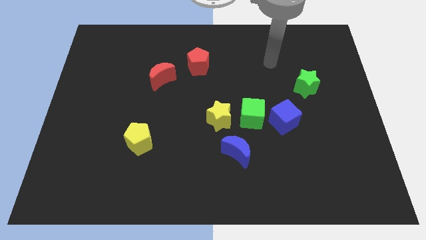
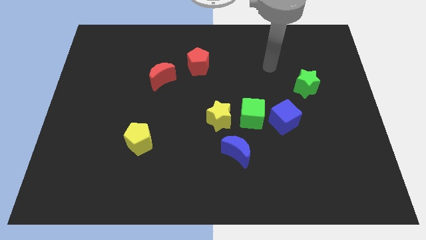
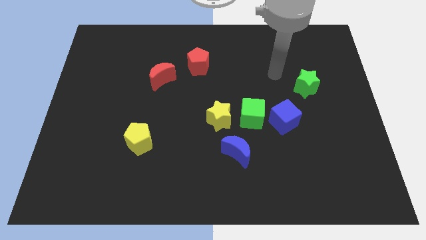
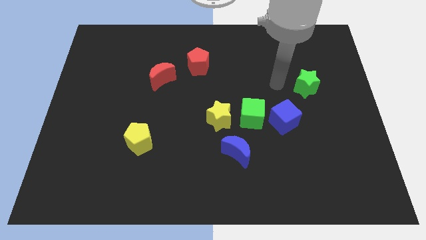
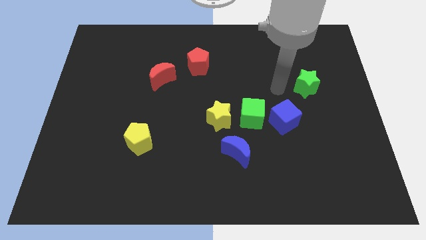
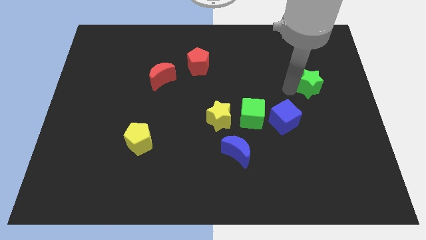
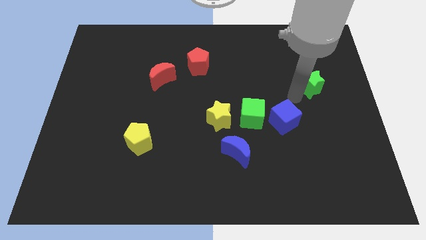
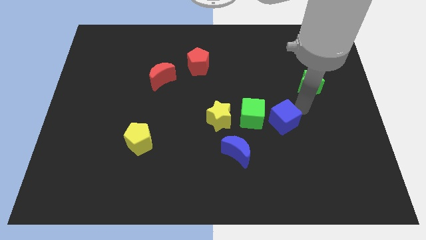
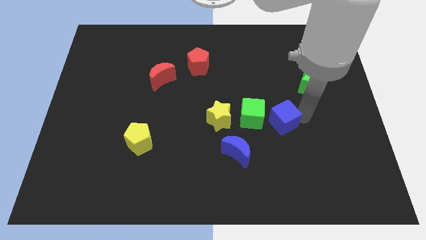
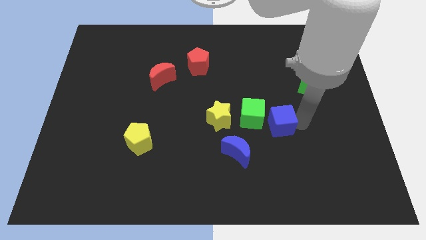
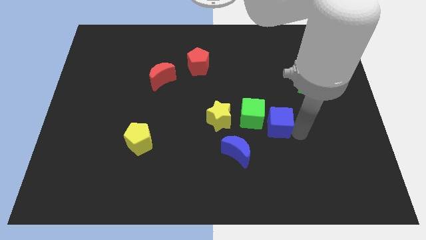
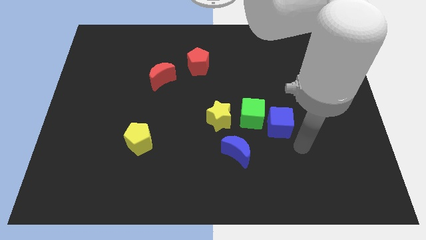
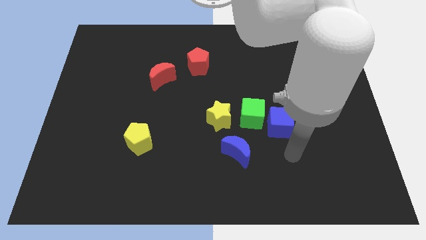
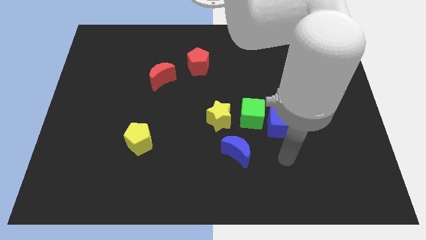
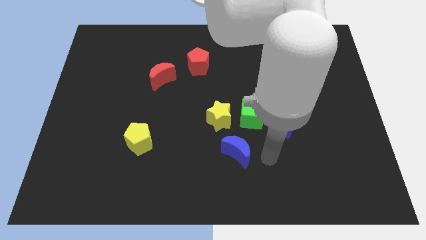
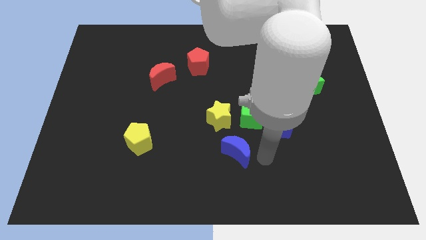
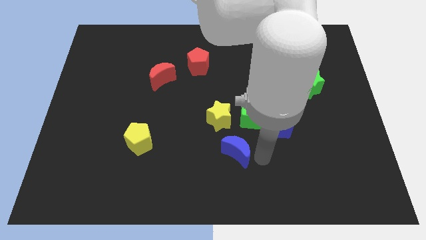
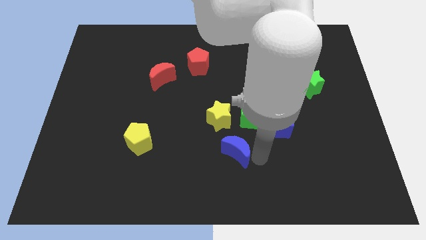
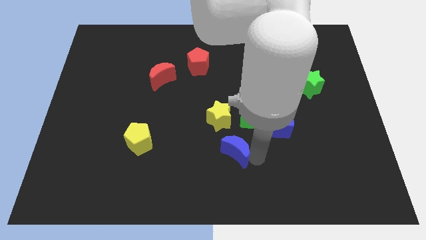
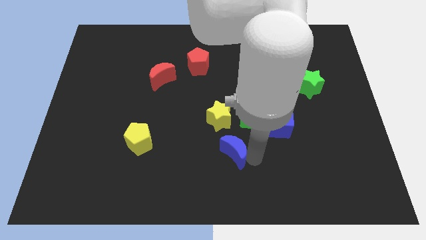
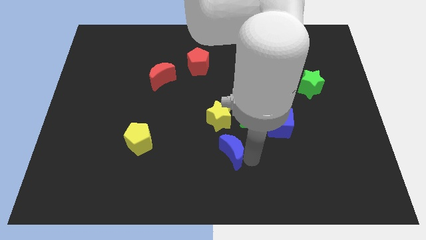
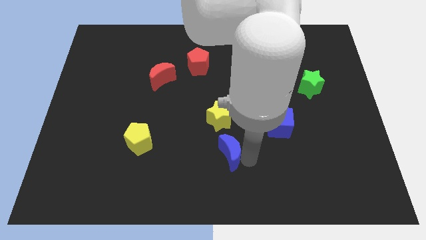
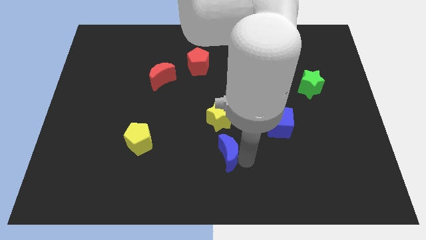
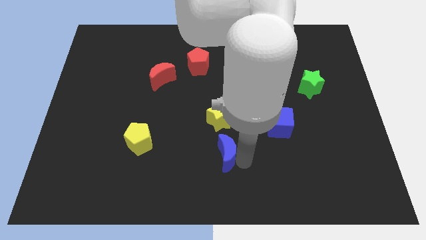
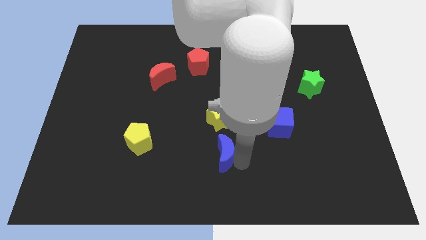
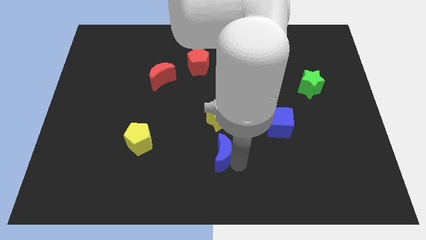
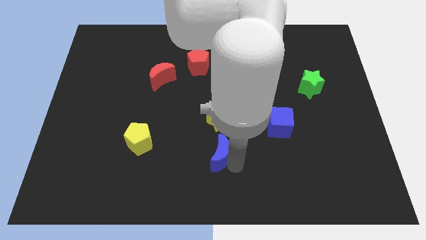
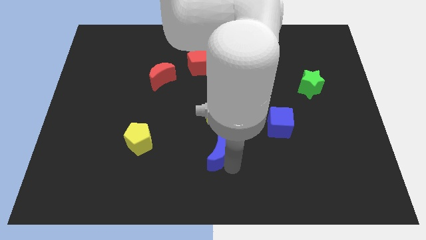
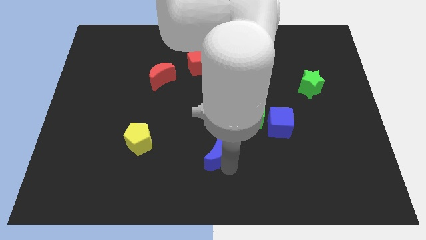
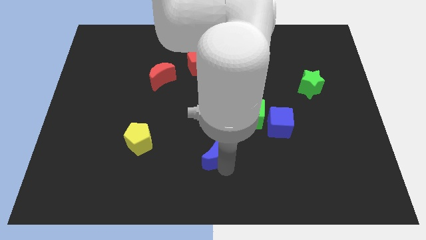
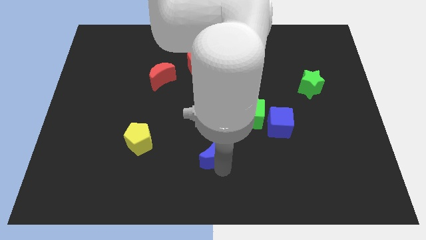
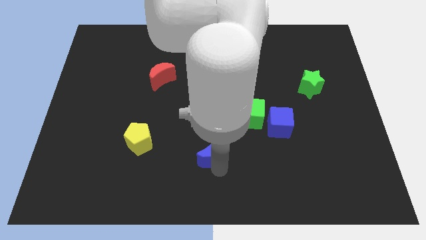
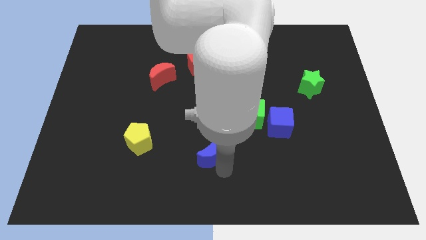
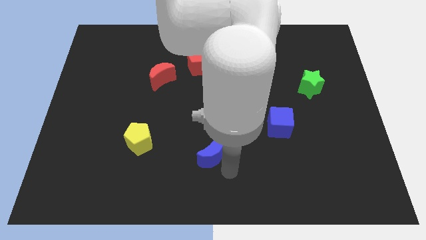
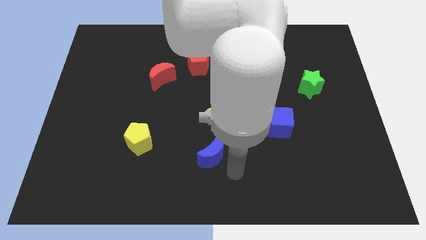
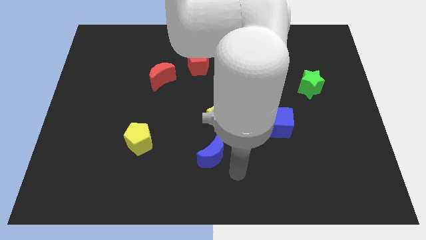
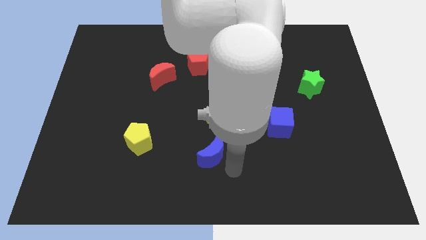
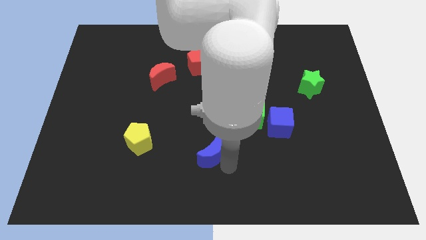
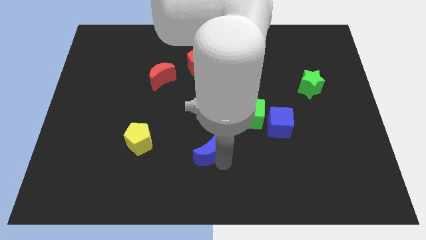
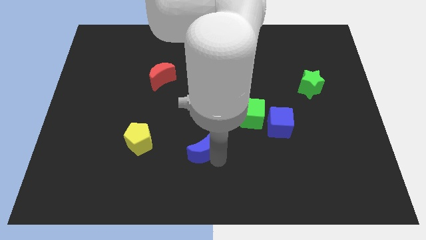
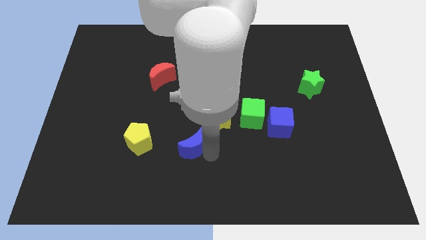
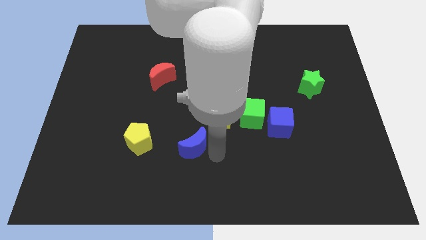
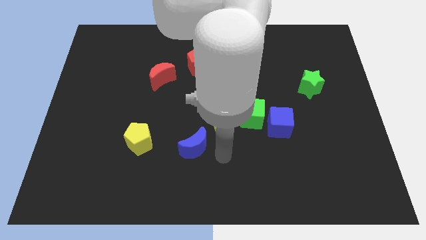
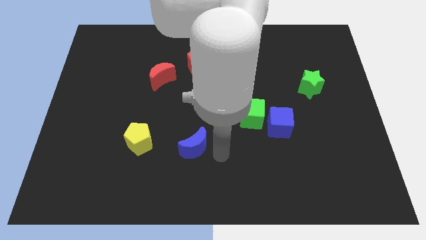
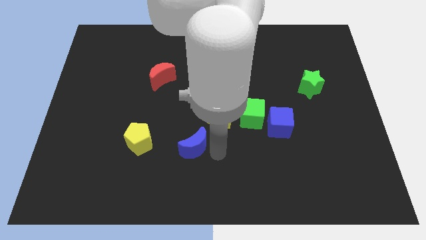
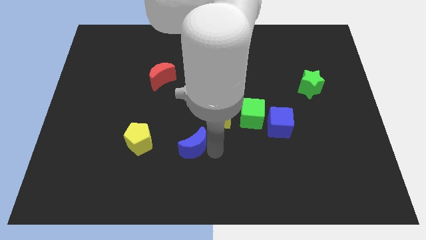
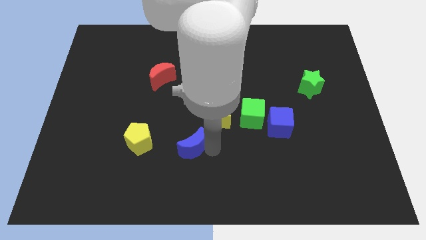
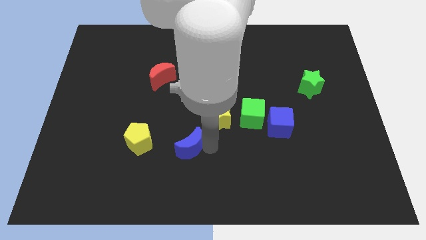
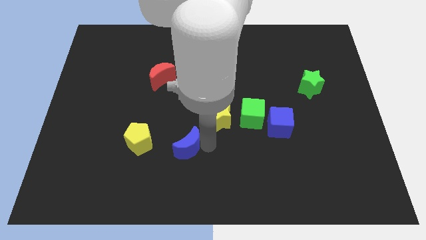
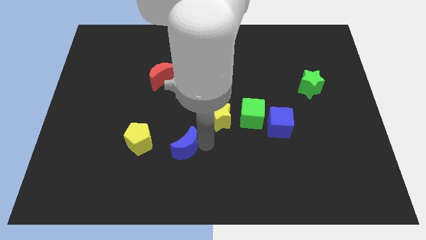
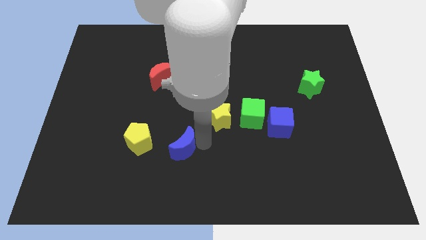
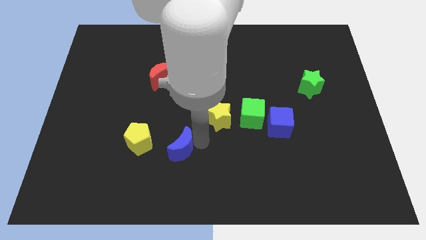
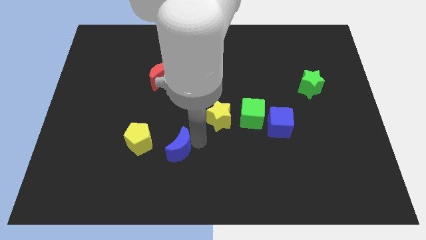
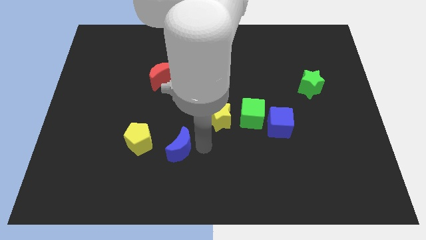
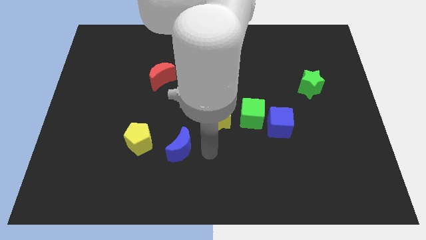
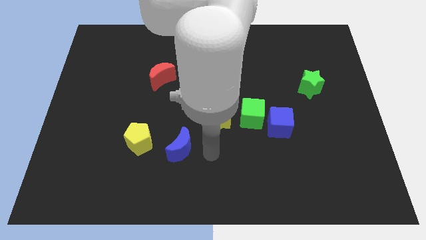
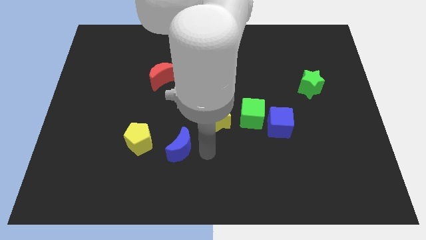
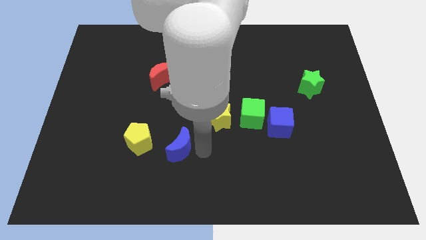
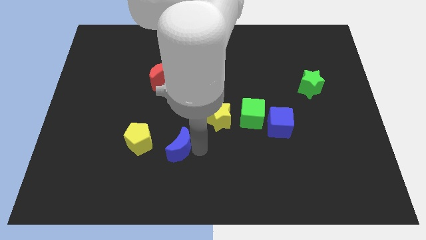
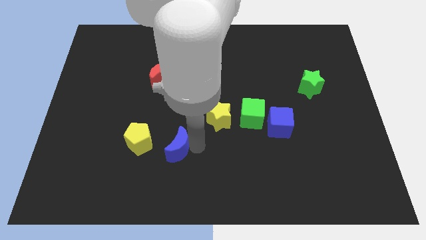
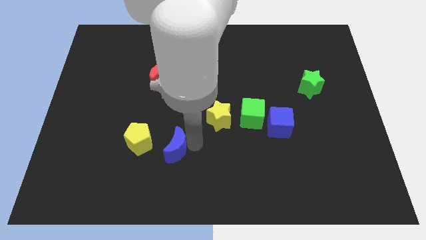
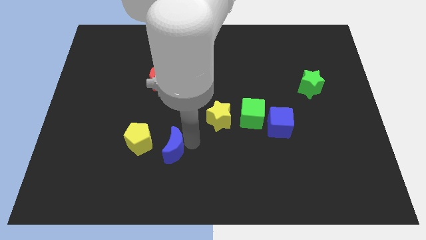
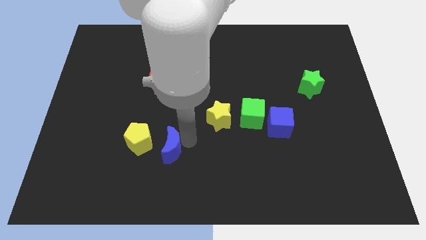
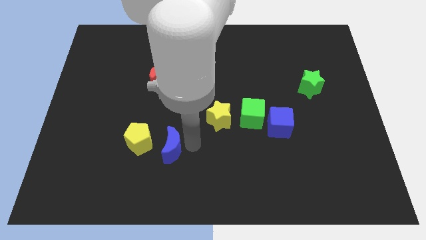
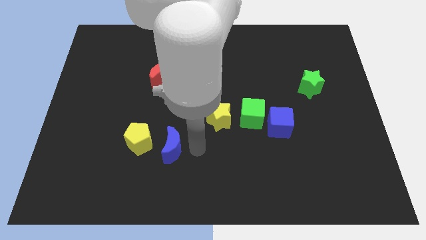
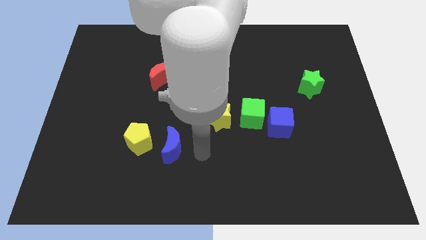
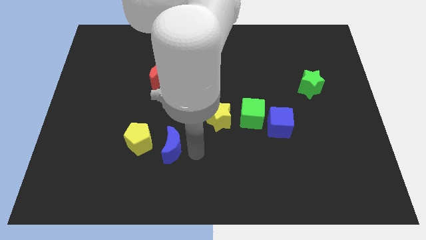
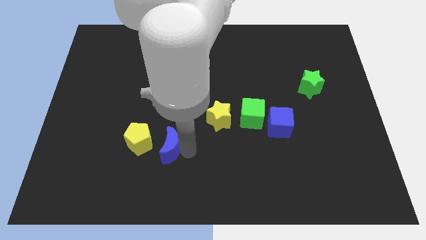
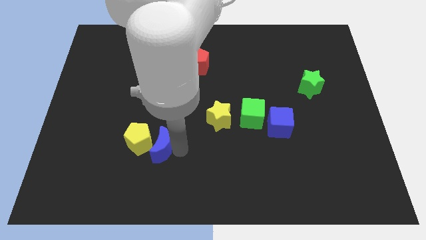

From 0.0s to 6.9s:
slide the blue moon towards the yellow pentagon
